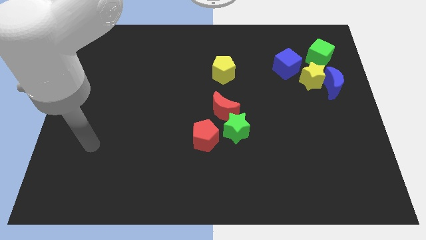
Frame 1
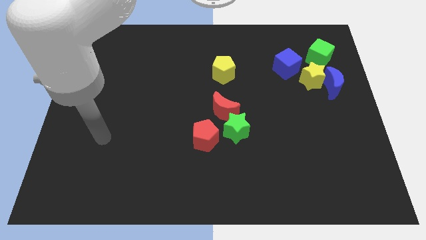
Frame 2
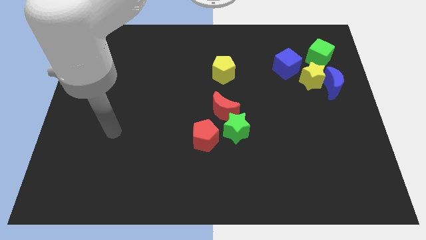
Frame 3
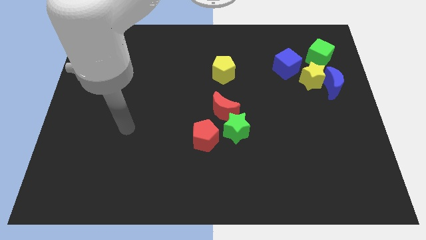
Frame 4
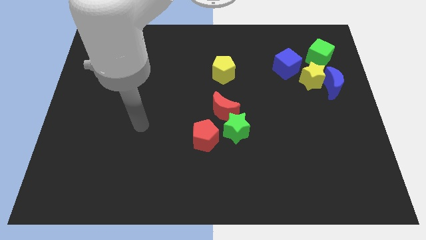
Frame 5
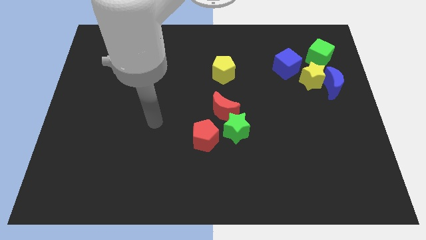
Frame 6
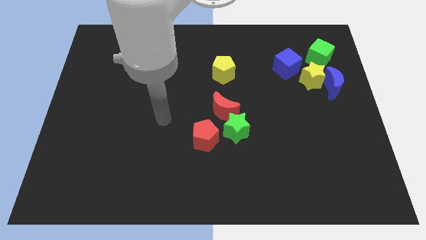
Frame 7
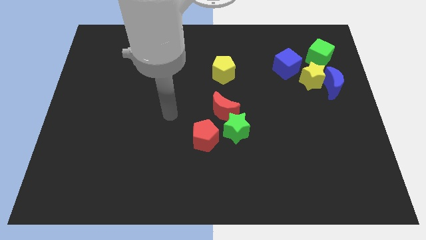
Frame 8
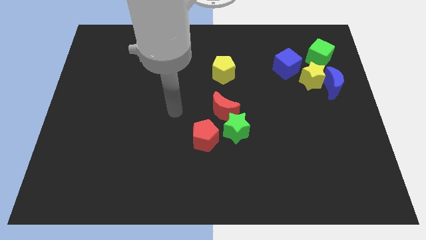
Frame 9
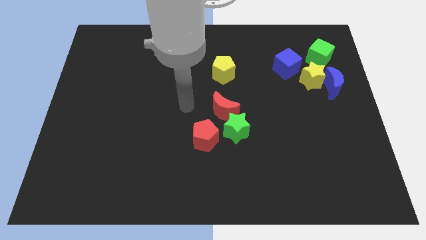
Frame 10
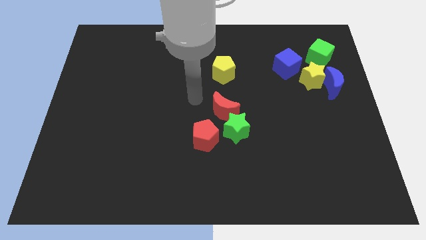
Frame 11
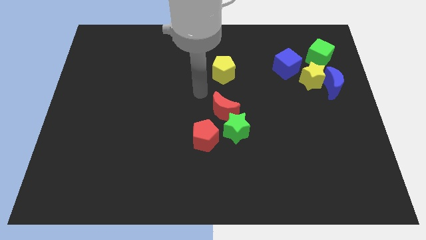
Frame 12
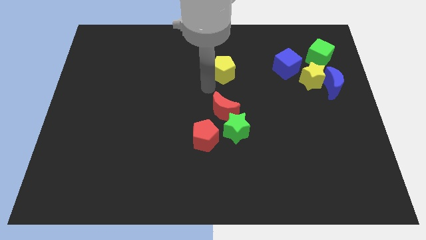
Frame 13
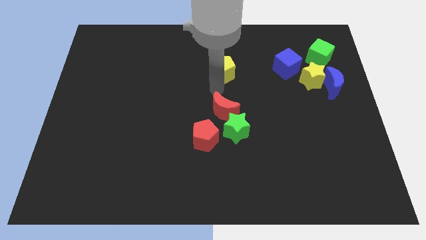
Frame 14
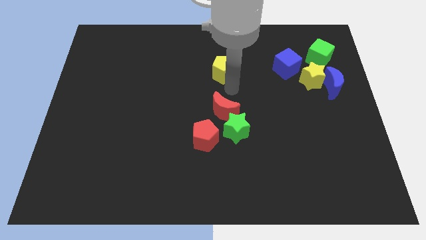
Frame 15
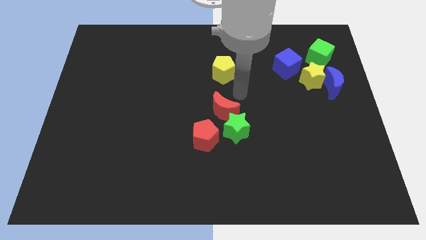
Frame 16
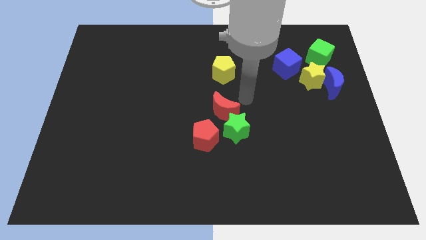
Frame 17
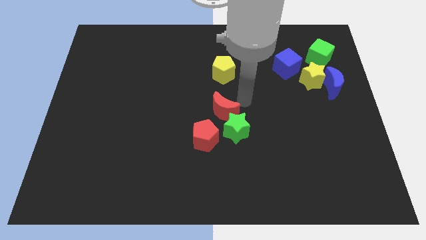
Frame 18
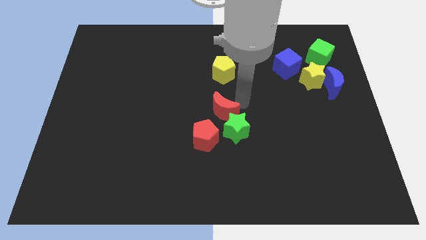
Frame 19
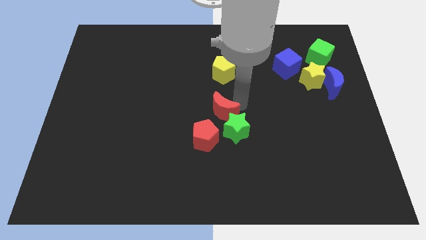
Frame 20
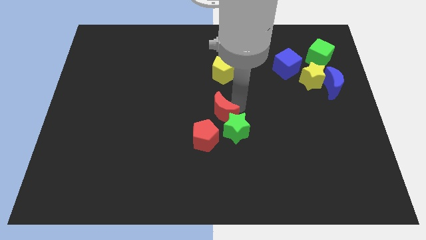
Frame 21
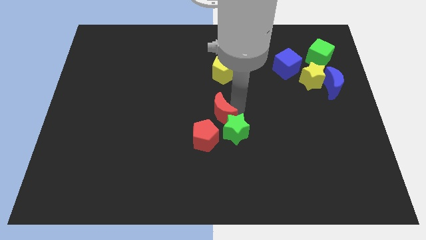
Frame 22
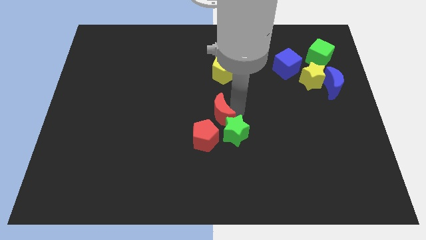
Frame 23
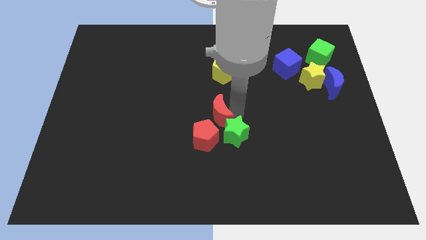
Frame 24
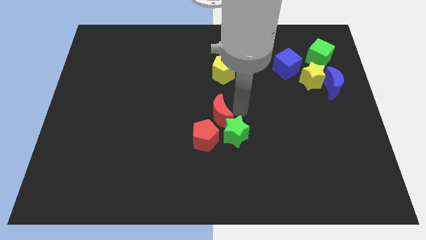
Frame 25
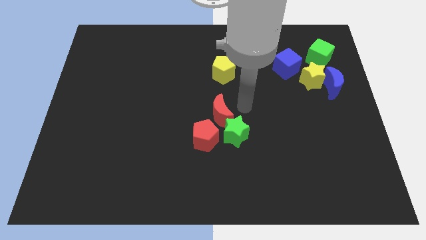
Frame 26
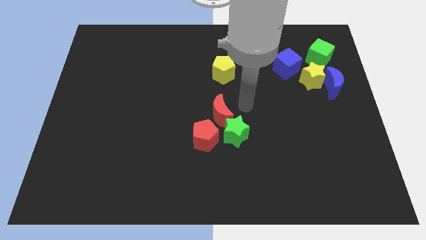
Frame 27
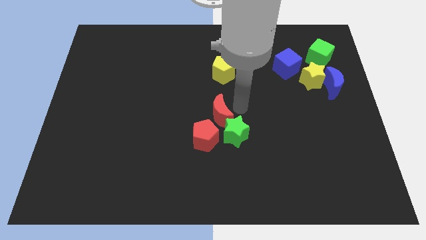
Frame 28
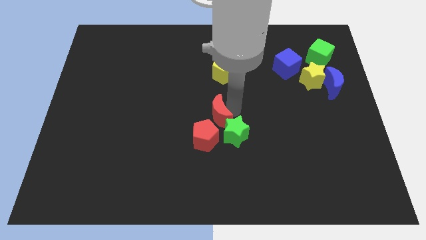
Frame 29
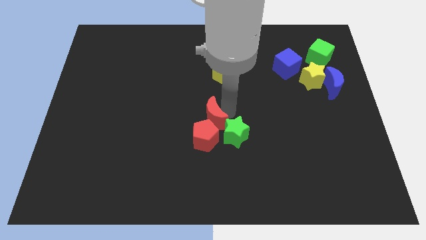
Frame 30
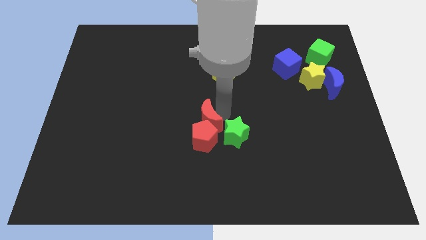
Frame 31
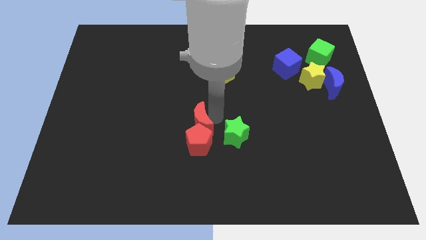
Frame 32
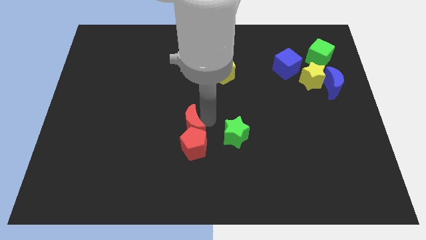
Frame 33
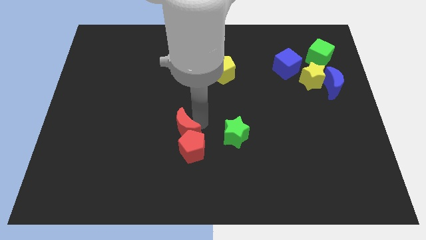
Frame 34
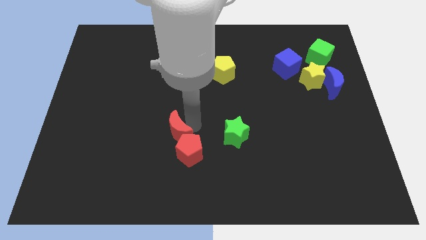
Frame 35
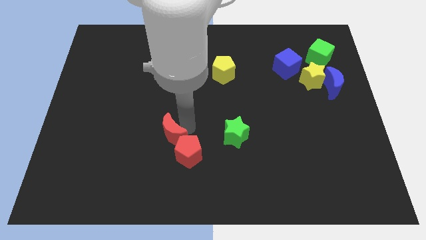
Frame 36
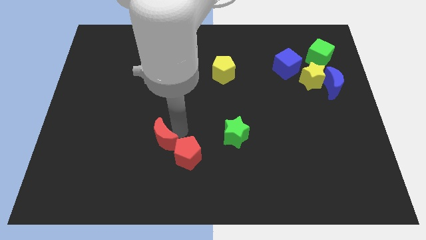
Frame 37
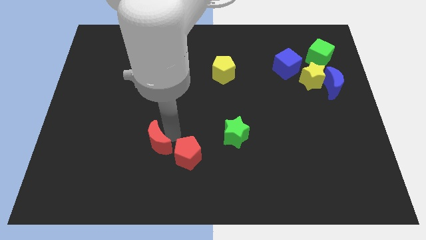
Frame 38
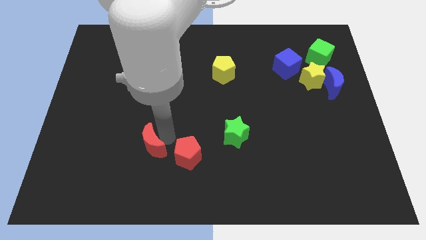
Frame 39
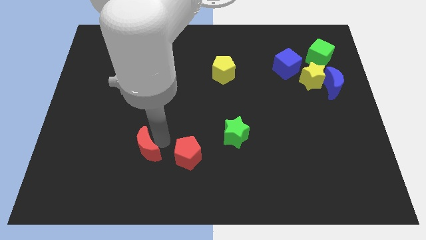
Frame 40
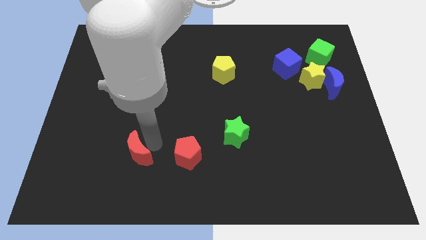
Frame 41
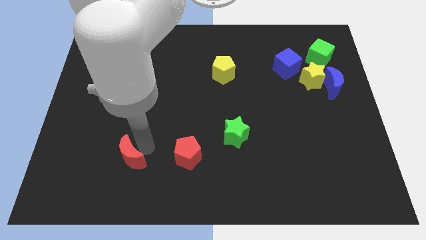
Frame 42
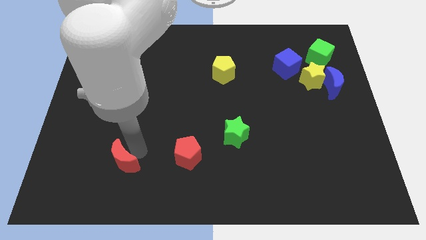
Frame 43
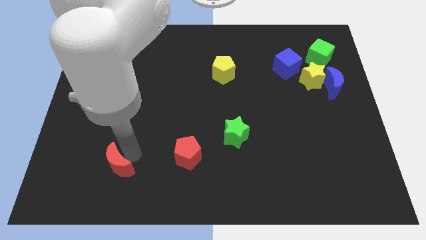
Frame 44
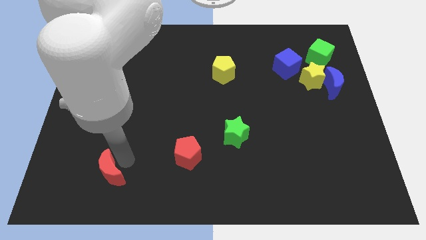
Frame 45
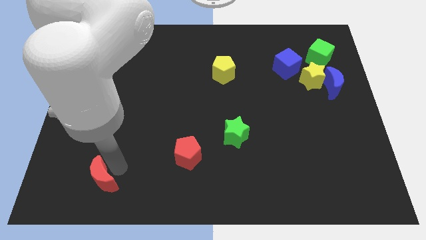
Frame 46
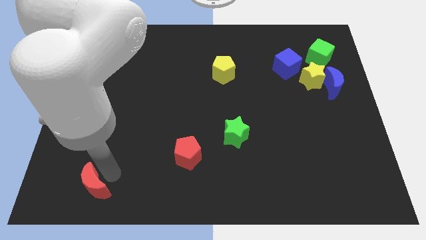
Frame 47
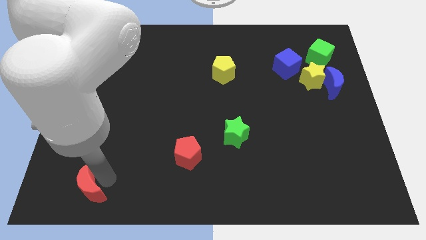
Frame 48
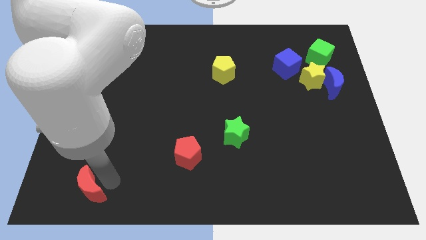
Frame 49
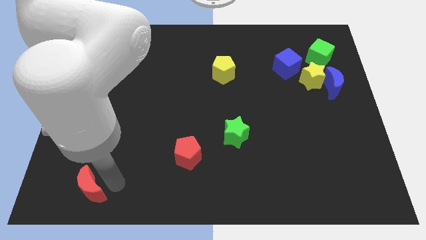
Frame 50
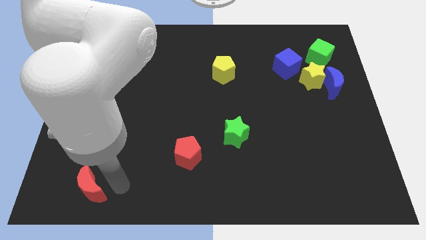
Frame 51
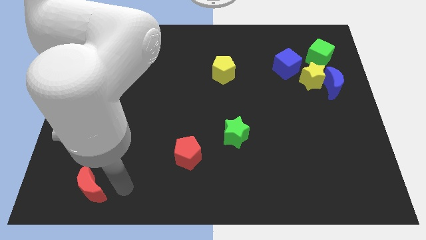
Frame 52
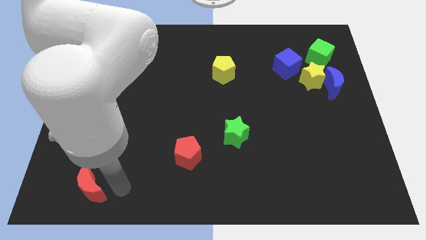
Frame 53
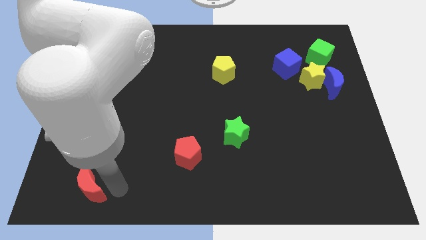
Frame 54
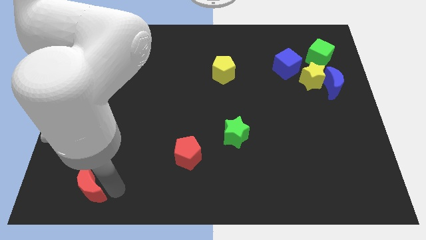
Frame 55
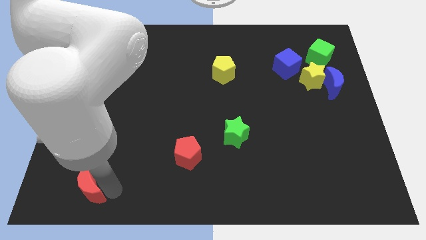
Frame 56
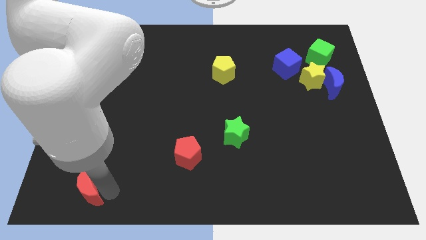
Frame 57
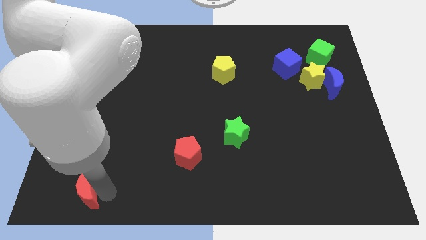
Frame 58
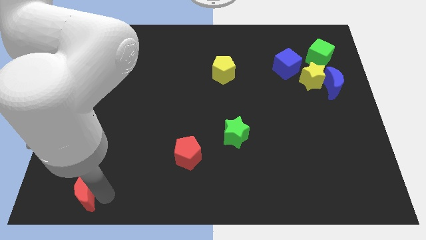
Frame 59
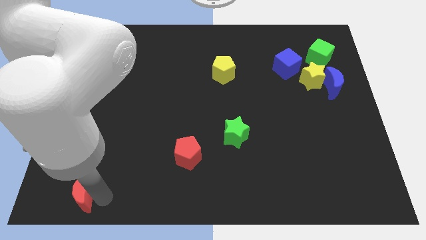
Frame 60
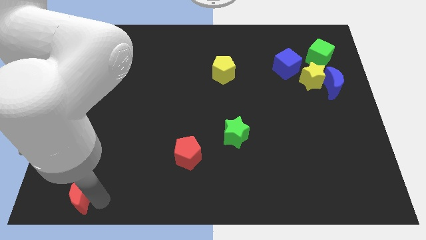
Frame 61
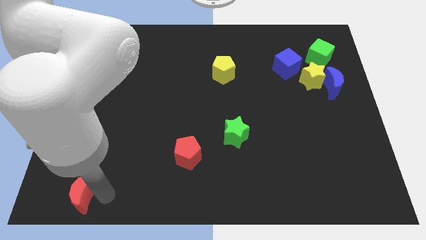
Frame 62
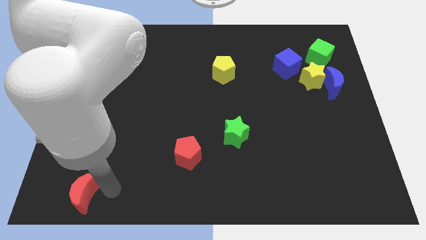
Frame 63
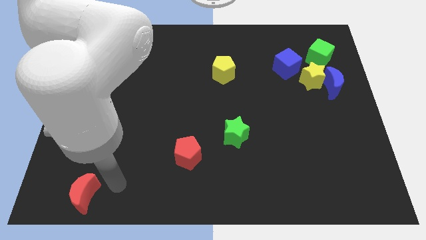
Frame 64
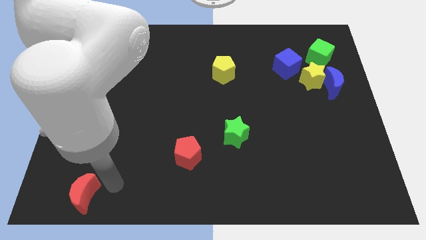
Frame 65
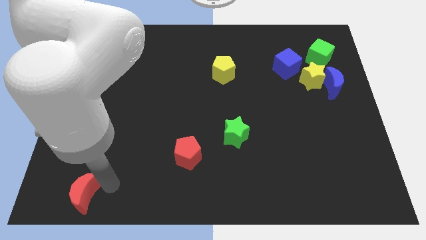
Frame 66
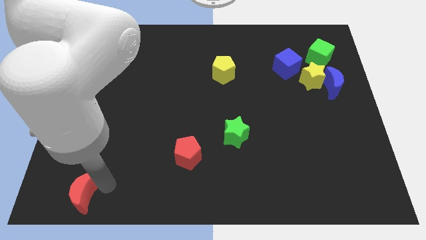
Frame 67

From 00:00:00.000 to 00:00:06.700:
slide the red moon to the bottom left corner

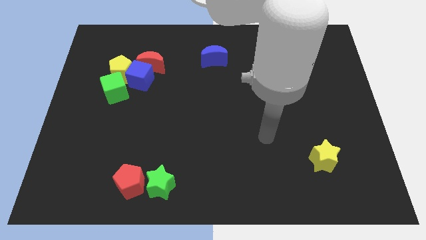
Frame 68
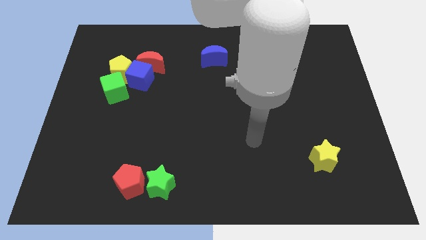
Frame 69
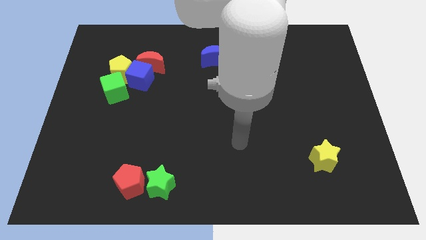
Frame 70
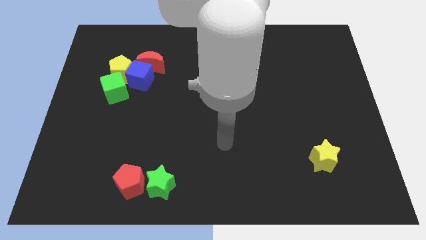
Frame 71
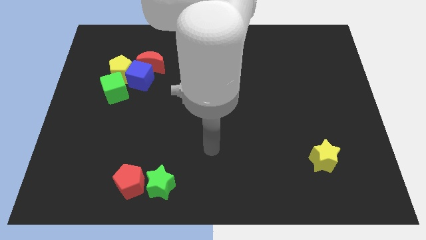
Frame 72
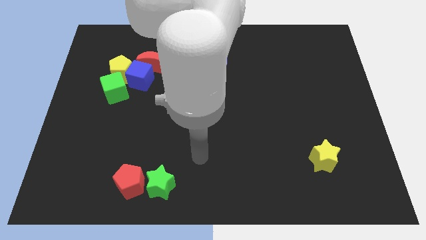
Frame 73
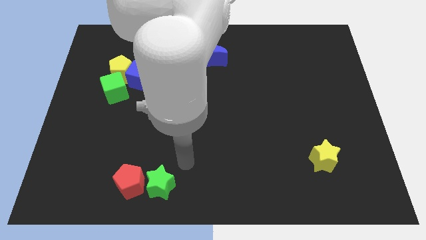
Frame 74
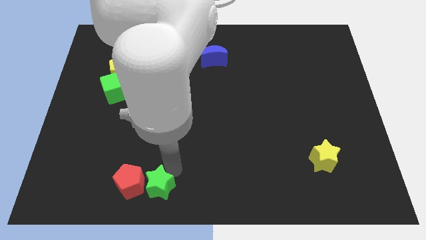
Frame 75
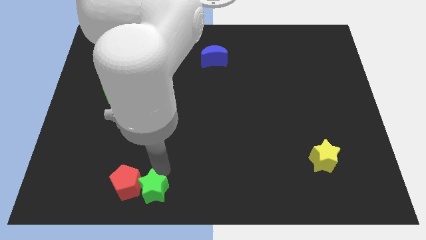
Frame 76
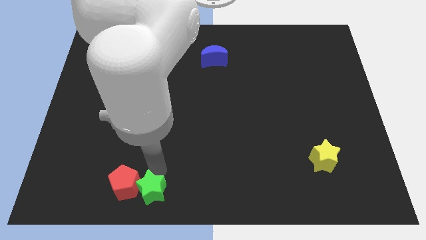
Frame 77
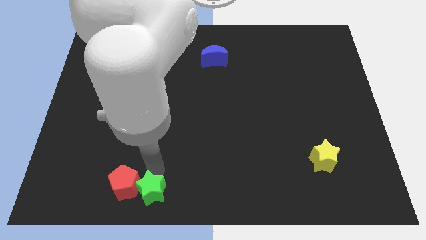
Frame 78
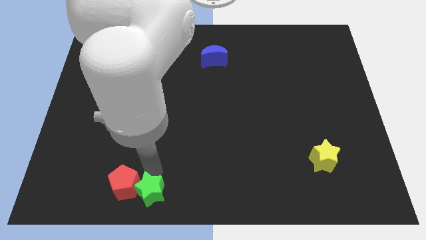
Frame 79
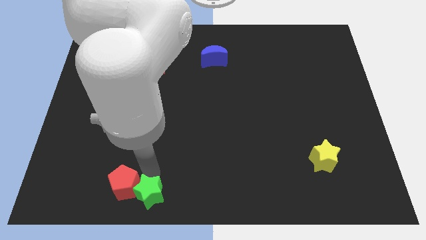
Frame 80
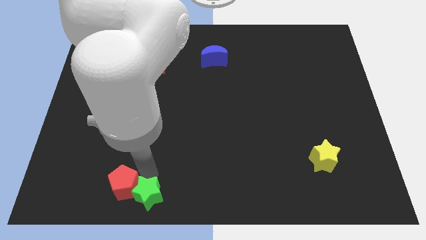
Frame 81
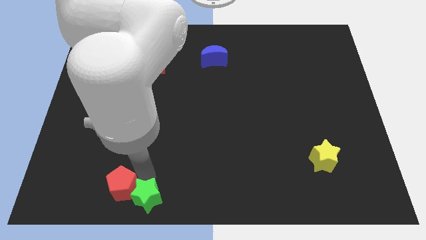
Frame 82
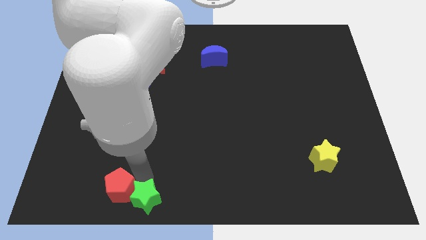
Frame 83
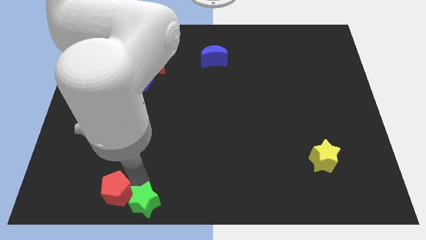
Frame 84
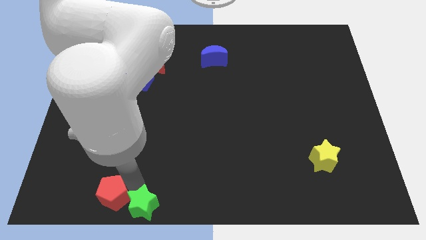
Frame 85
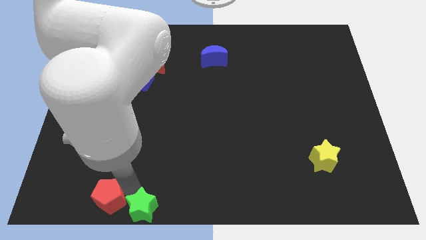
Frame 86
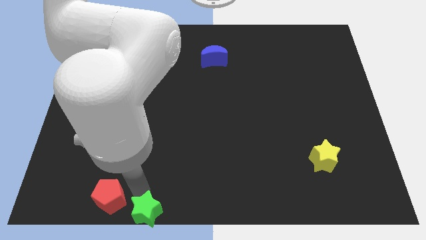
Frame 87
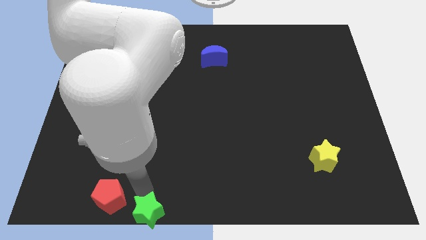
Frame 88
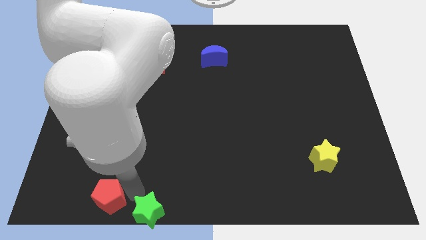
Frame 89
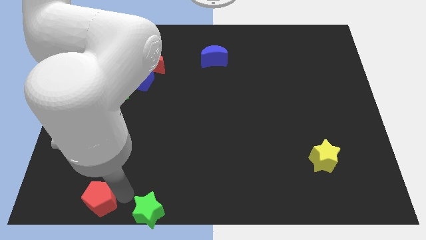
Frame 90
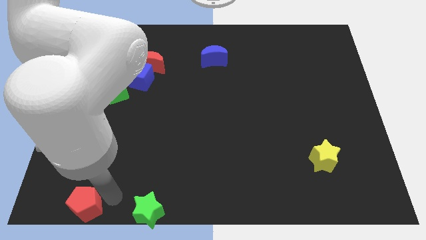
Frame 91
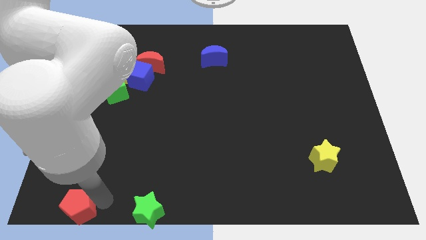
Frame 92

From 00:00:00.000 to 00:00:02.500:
move the red pentagon to the bottom left
